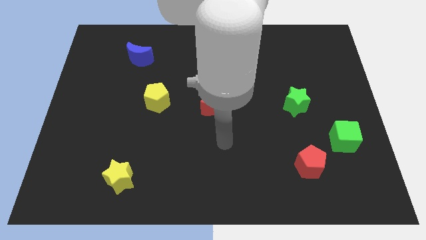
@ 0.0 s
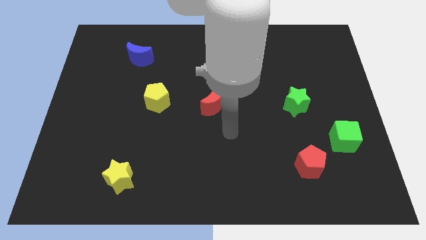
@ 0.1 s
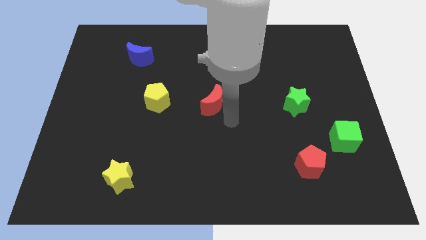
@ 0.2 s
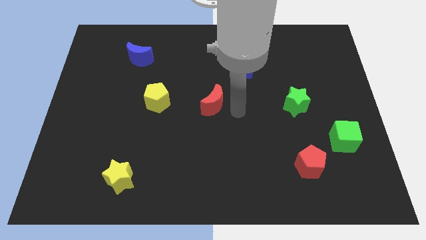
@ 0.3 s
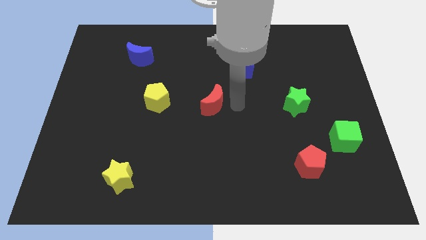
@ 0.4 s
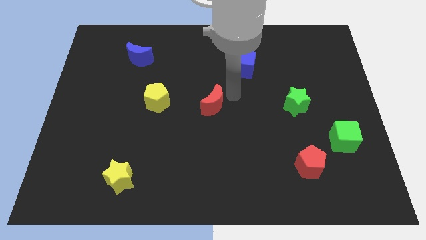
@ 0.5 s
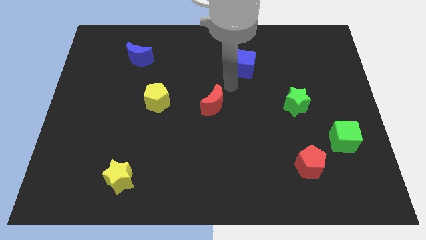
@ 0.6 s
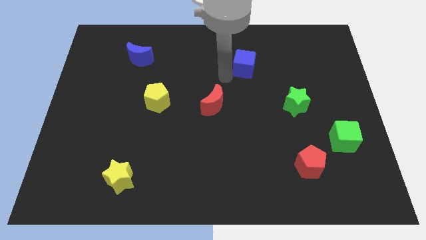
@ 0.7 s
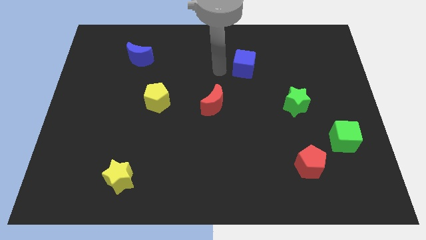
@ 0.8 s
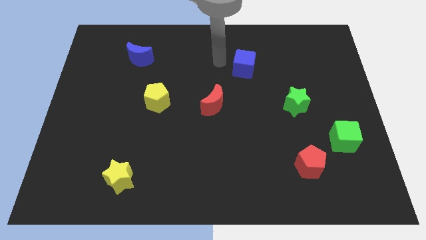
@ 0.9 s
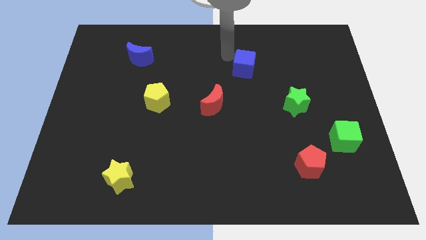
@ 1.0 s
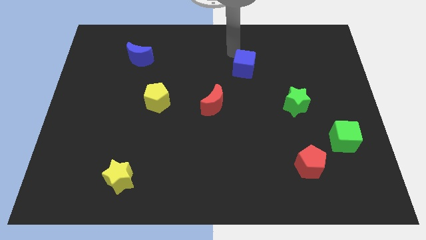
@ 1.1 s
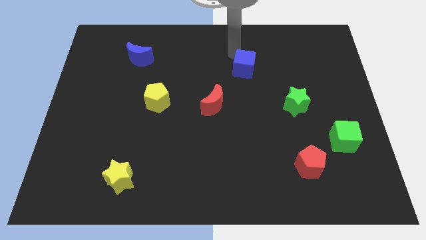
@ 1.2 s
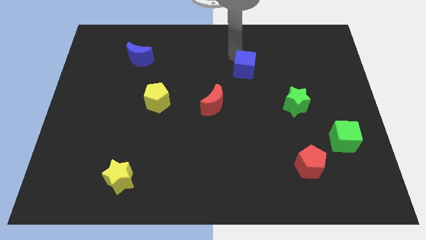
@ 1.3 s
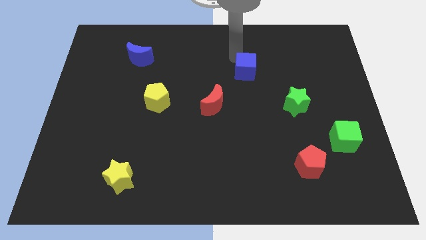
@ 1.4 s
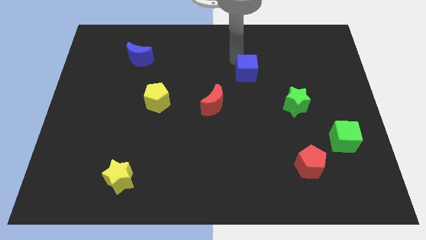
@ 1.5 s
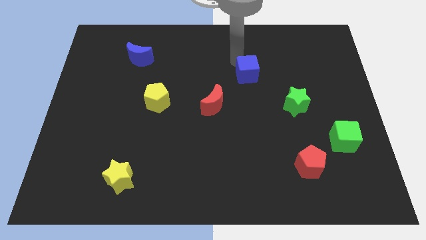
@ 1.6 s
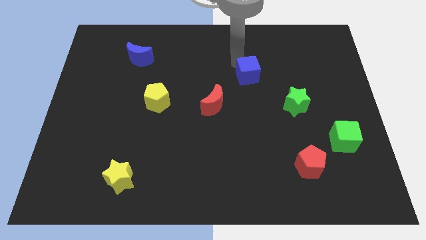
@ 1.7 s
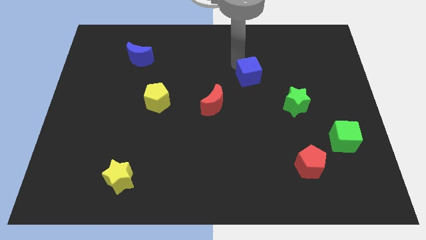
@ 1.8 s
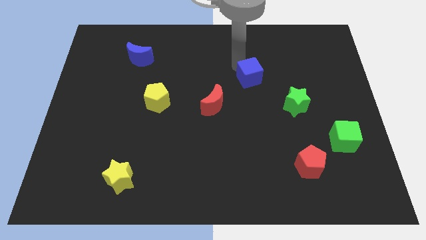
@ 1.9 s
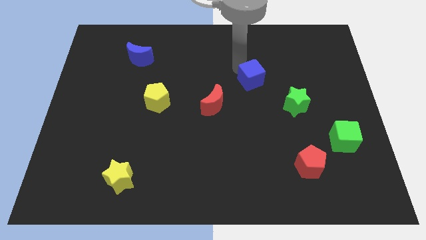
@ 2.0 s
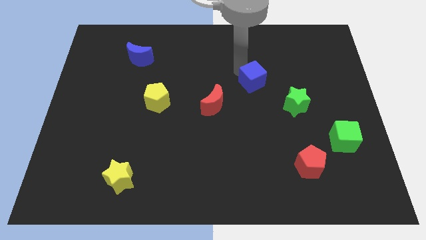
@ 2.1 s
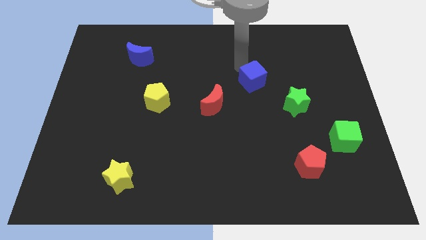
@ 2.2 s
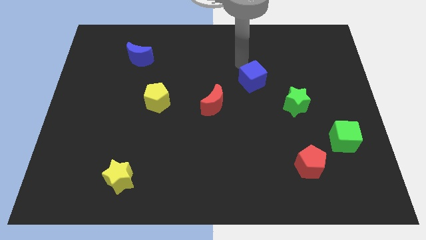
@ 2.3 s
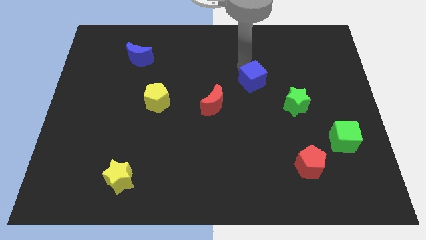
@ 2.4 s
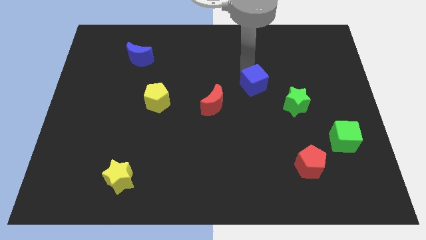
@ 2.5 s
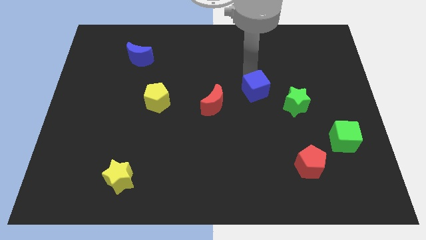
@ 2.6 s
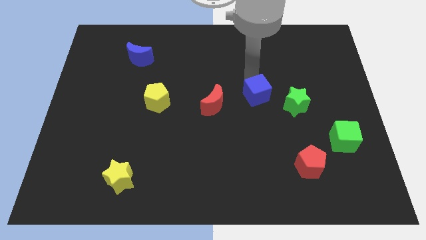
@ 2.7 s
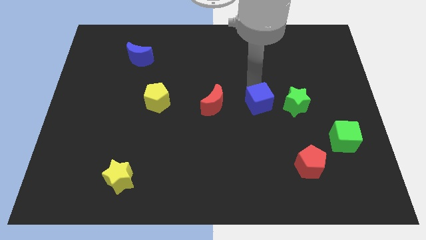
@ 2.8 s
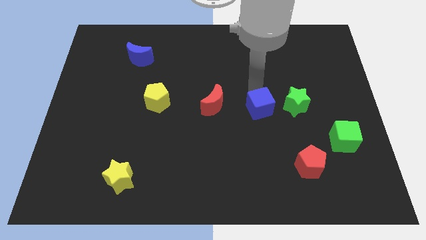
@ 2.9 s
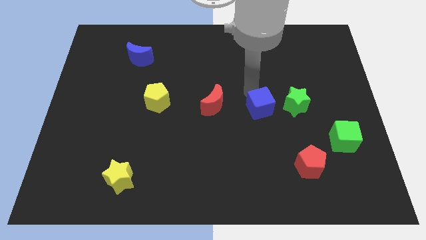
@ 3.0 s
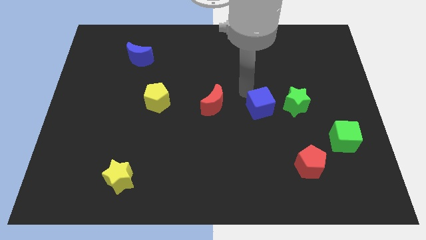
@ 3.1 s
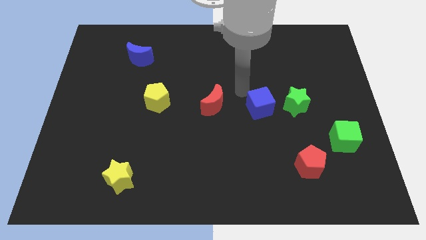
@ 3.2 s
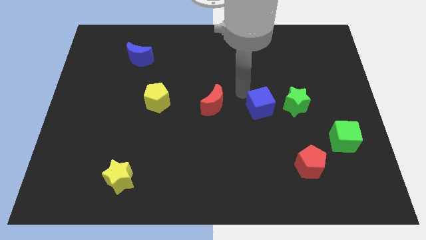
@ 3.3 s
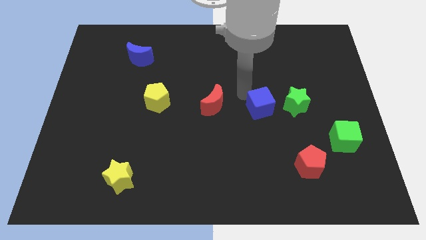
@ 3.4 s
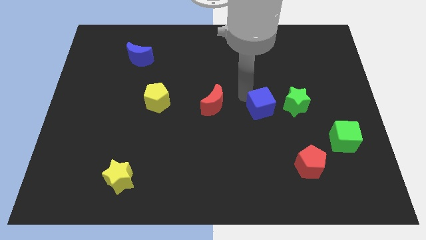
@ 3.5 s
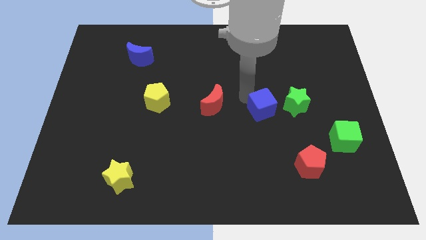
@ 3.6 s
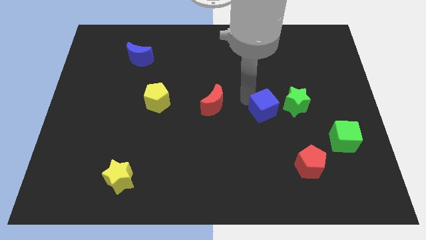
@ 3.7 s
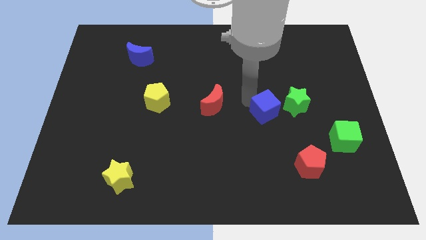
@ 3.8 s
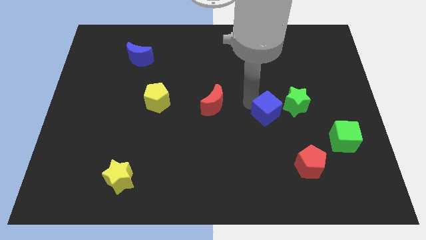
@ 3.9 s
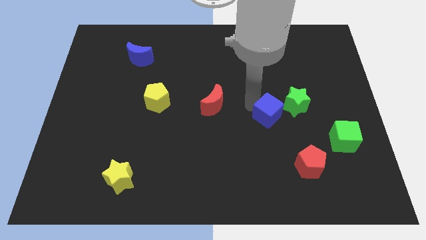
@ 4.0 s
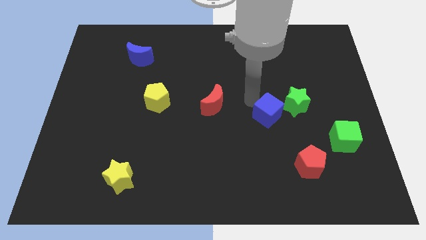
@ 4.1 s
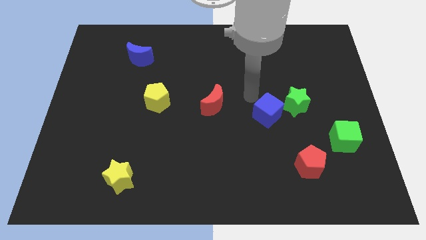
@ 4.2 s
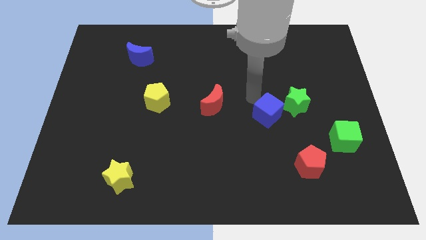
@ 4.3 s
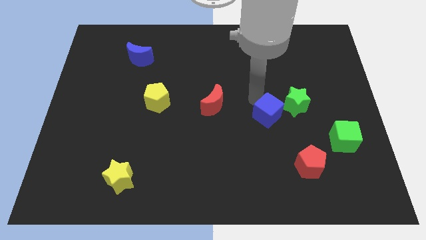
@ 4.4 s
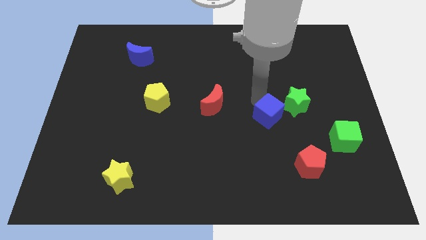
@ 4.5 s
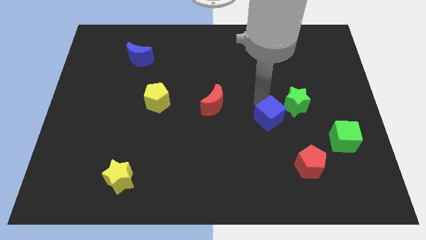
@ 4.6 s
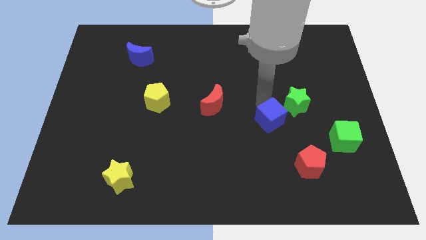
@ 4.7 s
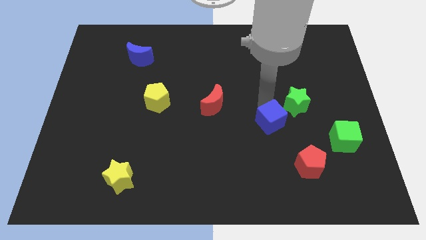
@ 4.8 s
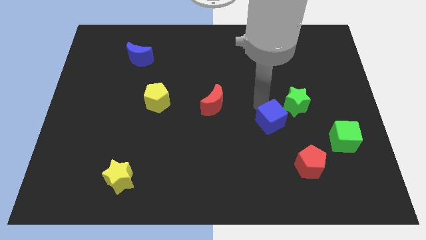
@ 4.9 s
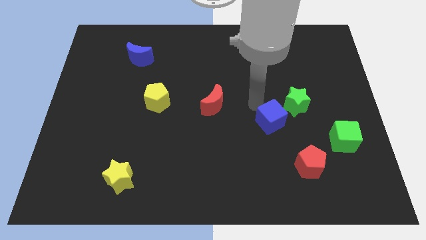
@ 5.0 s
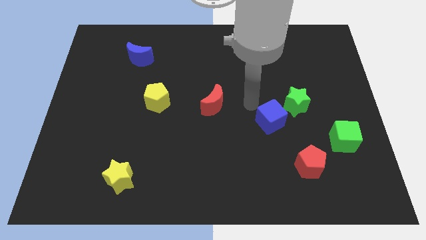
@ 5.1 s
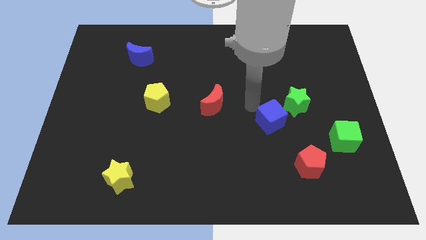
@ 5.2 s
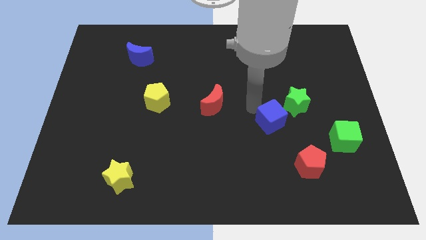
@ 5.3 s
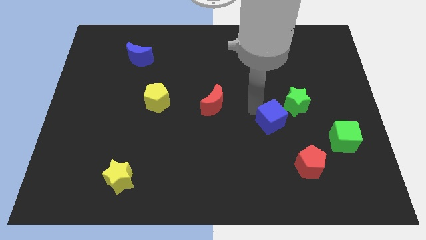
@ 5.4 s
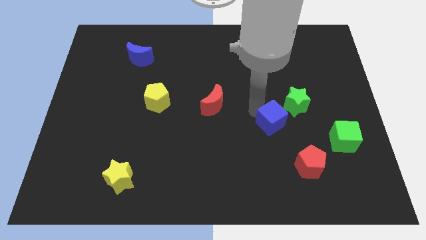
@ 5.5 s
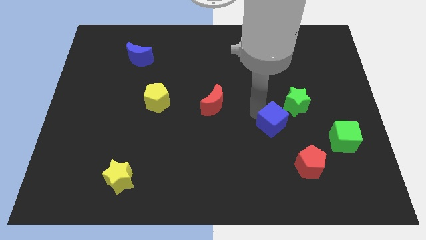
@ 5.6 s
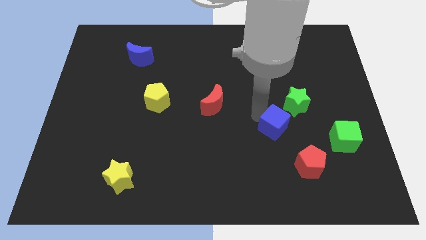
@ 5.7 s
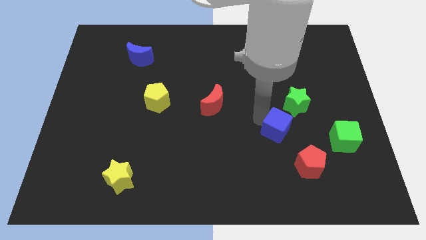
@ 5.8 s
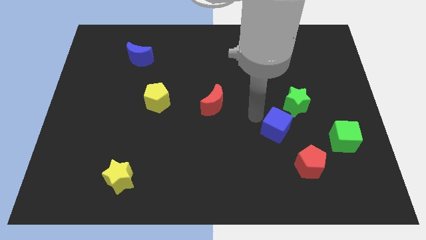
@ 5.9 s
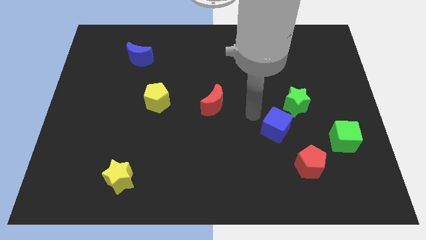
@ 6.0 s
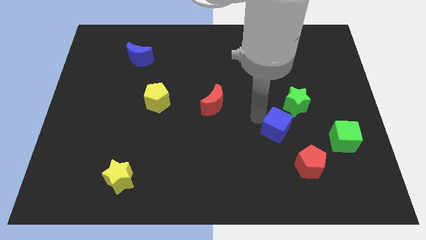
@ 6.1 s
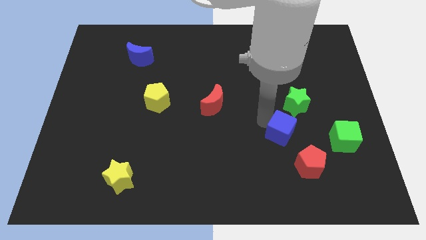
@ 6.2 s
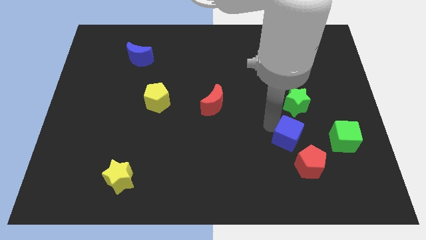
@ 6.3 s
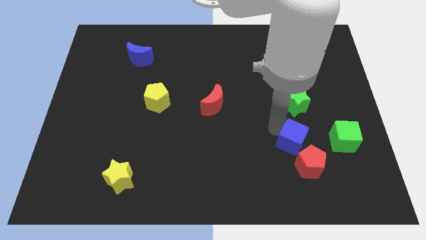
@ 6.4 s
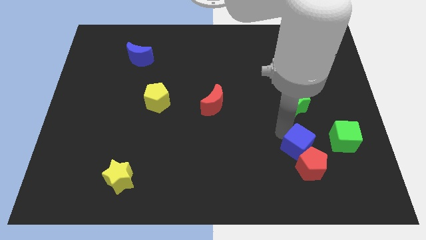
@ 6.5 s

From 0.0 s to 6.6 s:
slide the blue cube close to the red pentagon
